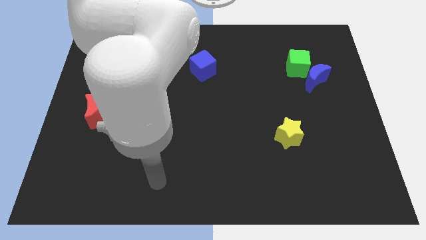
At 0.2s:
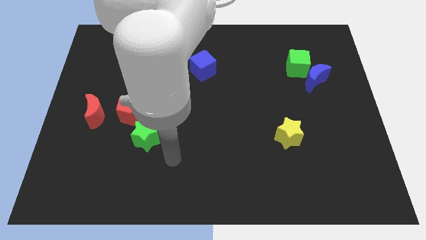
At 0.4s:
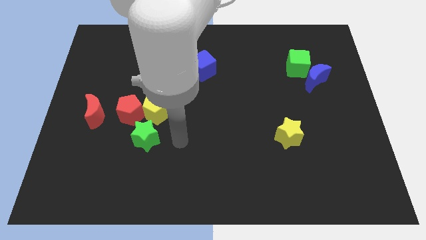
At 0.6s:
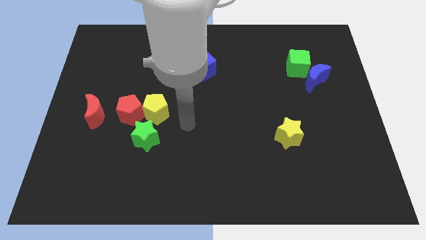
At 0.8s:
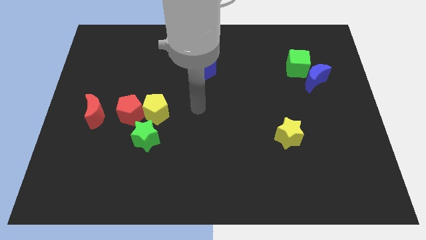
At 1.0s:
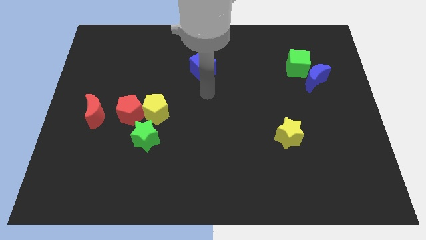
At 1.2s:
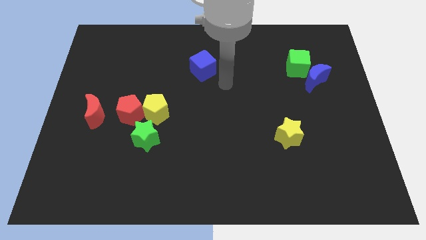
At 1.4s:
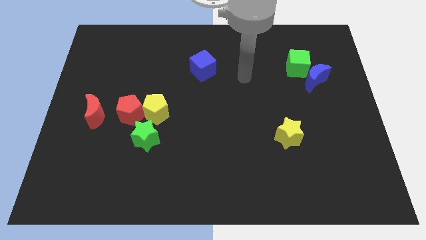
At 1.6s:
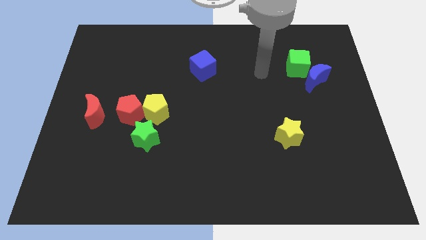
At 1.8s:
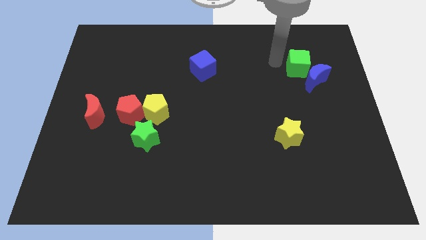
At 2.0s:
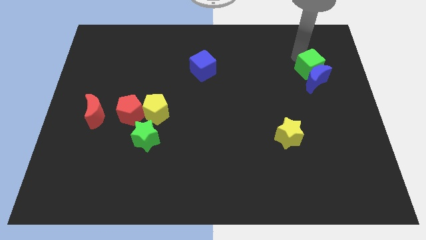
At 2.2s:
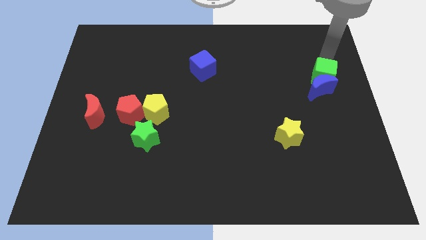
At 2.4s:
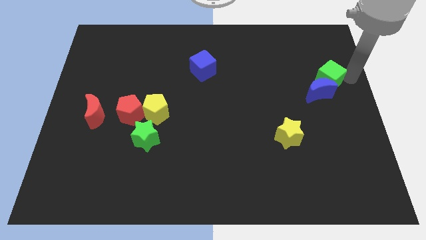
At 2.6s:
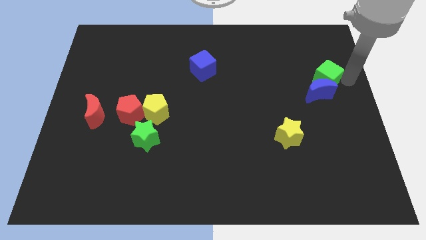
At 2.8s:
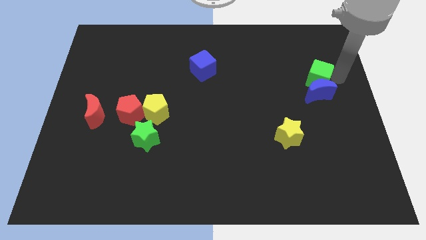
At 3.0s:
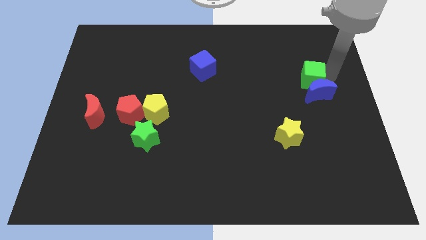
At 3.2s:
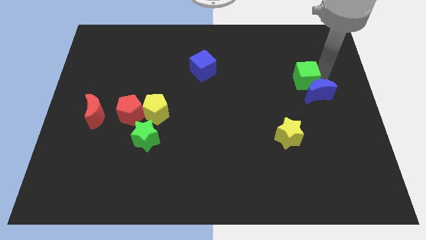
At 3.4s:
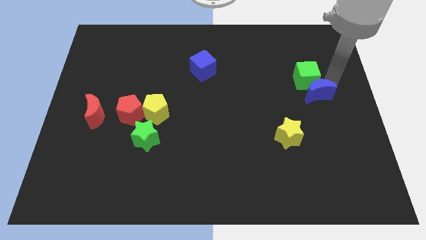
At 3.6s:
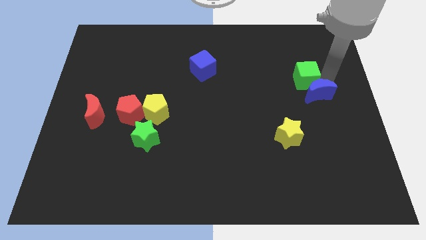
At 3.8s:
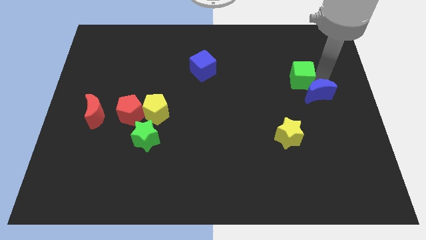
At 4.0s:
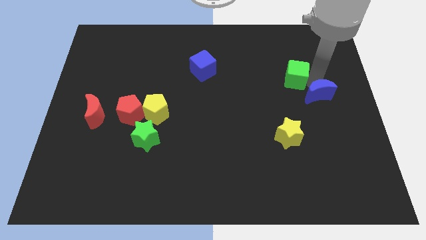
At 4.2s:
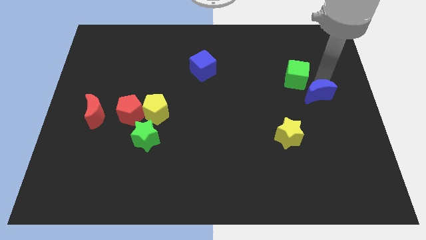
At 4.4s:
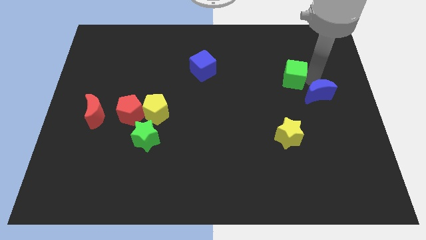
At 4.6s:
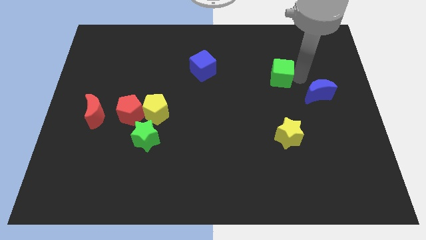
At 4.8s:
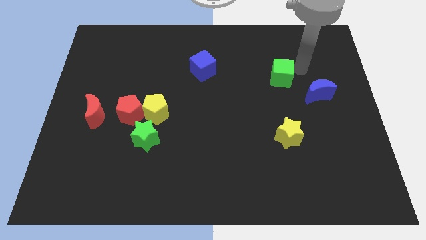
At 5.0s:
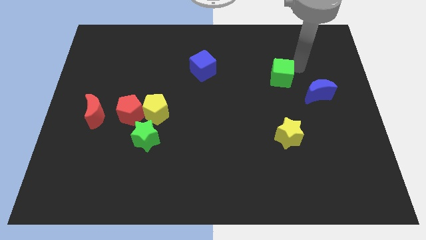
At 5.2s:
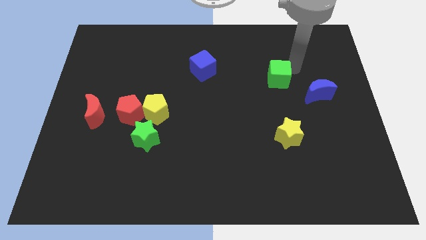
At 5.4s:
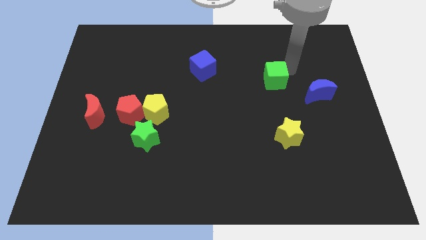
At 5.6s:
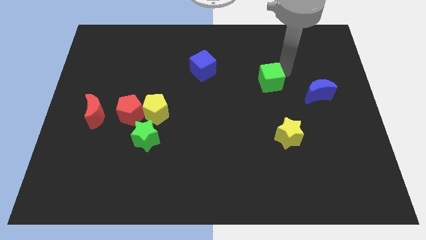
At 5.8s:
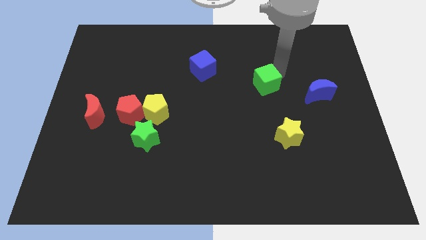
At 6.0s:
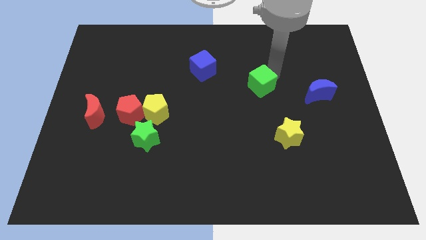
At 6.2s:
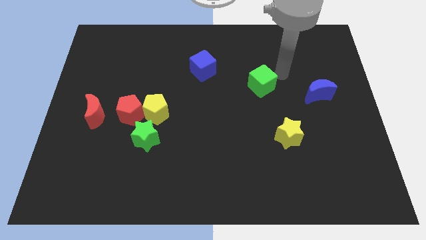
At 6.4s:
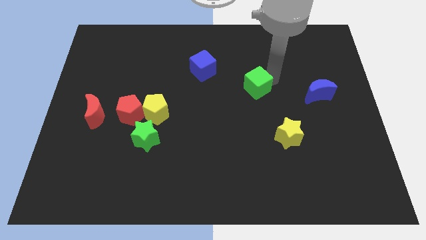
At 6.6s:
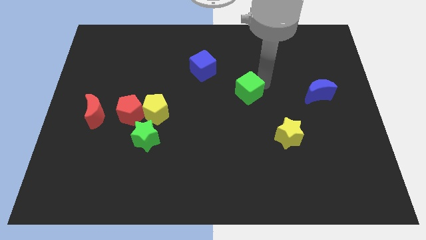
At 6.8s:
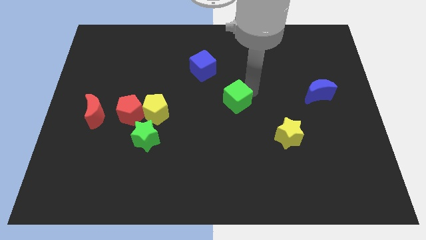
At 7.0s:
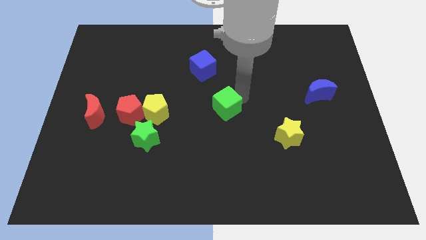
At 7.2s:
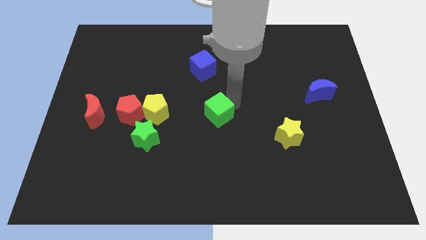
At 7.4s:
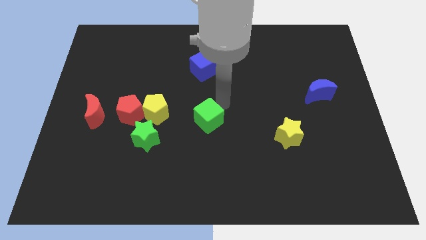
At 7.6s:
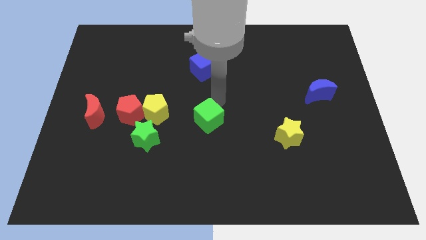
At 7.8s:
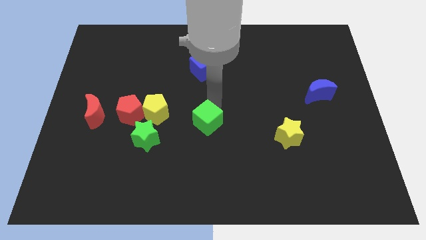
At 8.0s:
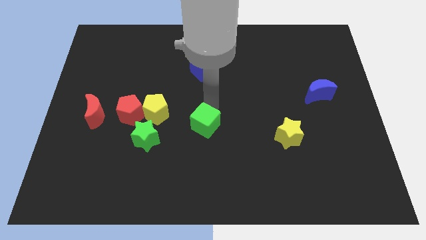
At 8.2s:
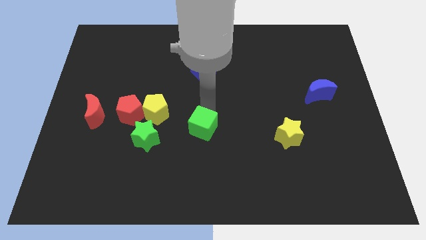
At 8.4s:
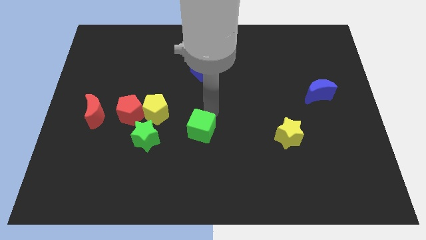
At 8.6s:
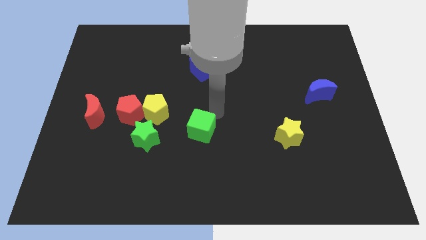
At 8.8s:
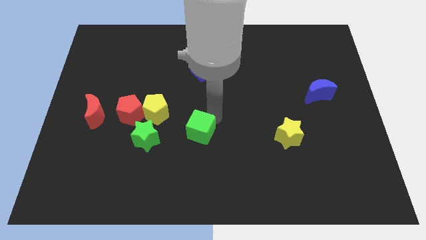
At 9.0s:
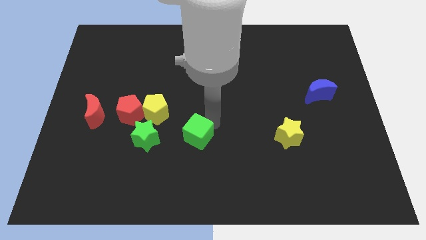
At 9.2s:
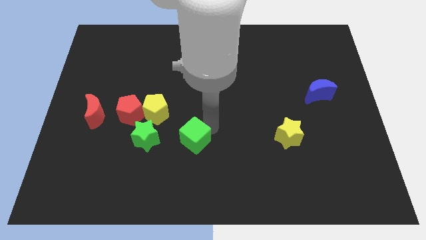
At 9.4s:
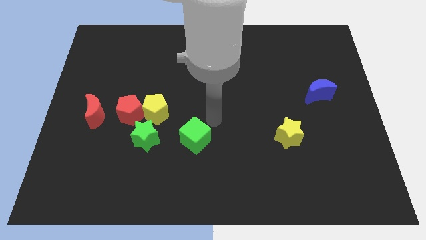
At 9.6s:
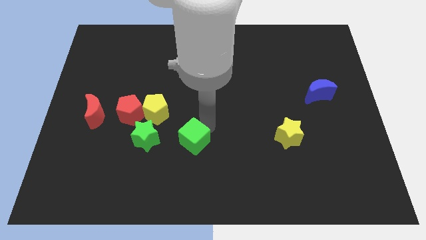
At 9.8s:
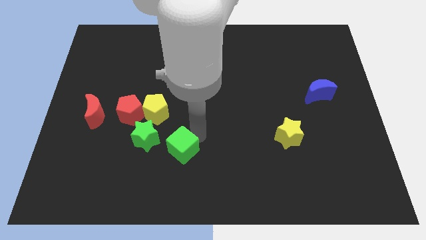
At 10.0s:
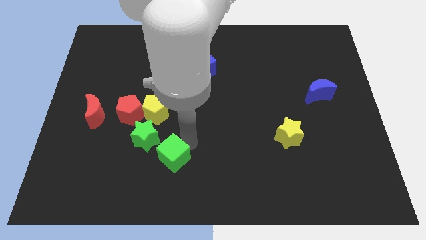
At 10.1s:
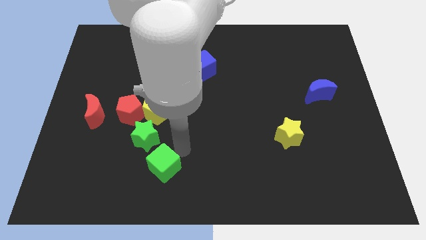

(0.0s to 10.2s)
slide the green cube below the green star

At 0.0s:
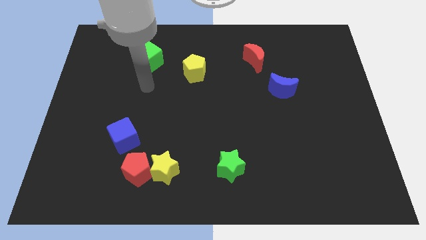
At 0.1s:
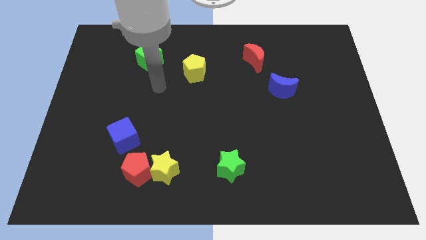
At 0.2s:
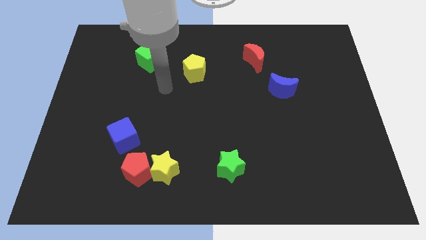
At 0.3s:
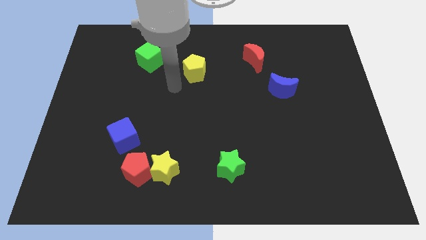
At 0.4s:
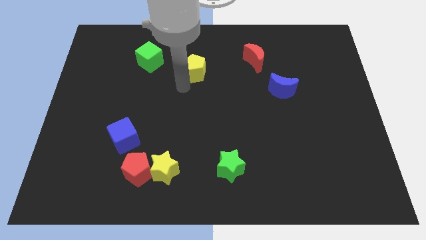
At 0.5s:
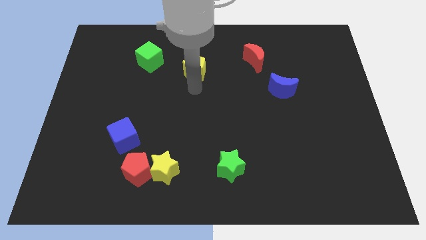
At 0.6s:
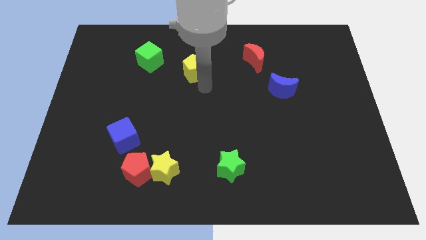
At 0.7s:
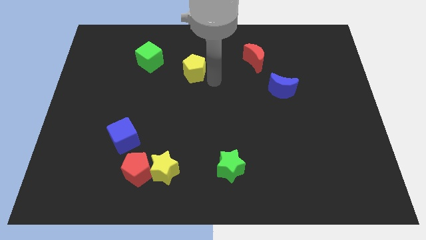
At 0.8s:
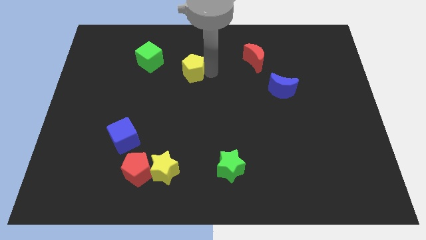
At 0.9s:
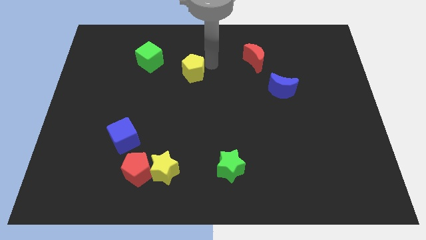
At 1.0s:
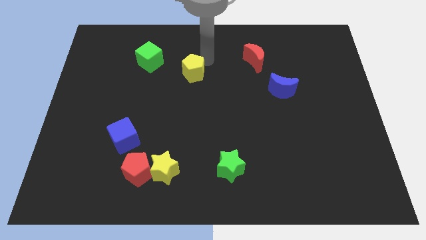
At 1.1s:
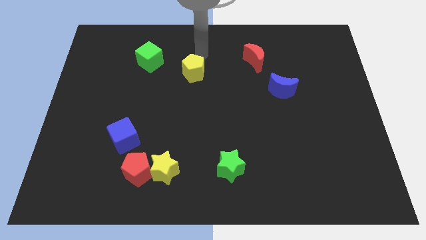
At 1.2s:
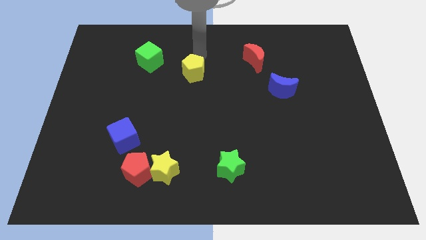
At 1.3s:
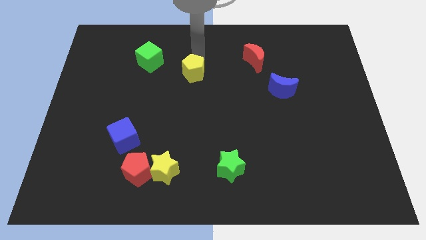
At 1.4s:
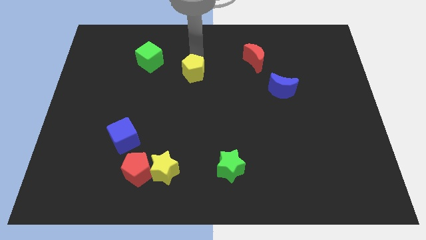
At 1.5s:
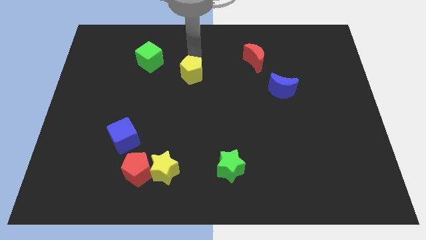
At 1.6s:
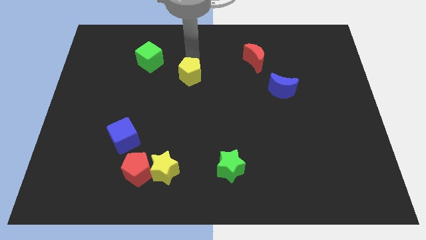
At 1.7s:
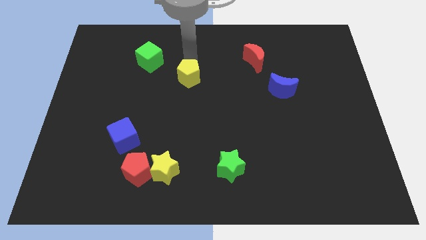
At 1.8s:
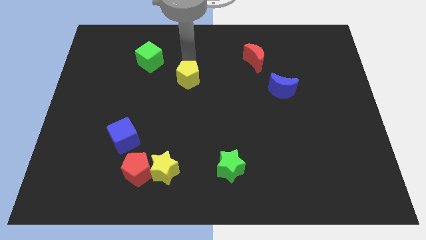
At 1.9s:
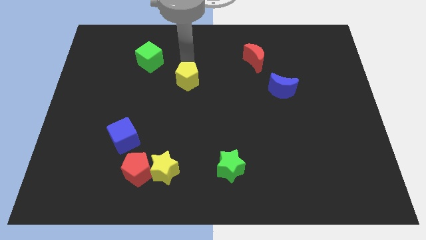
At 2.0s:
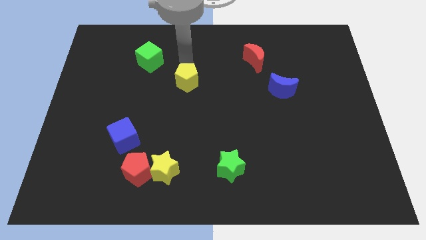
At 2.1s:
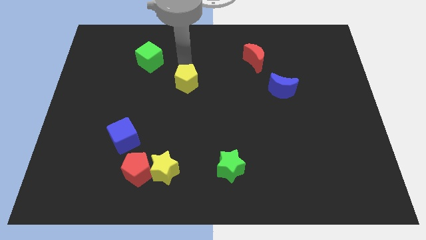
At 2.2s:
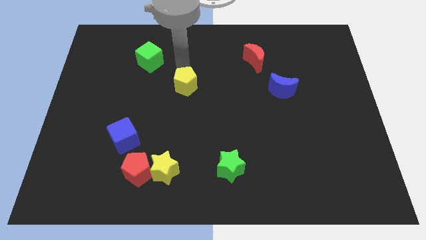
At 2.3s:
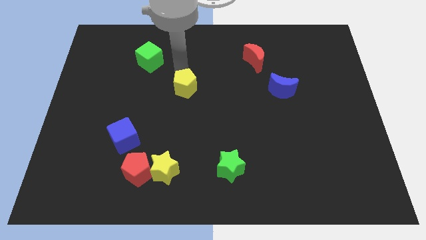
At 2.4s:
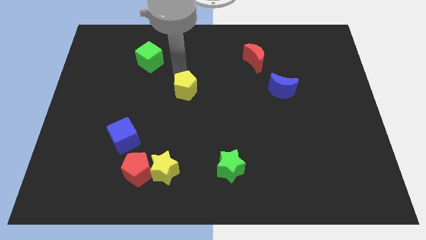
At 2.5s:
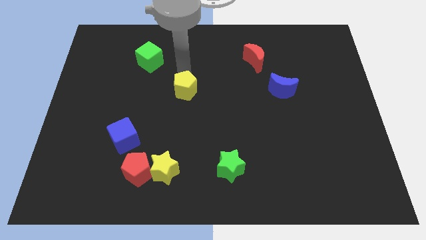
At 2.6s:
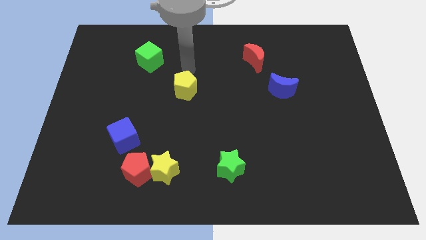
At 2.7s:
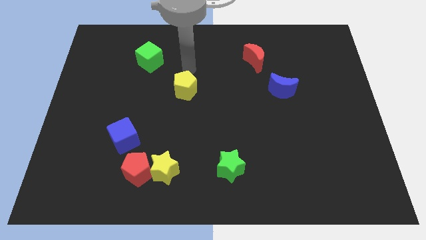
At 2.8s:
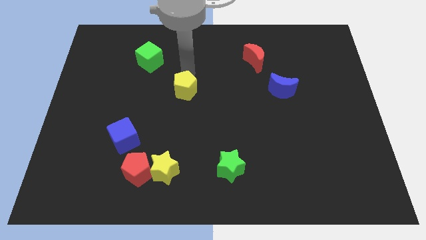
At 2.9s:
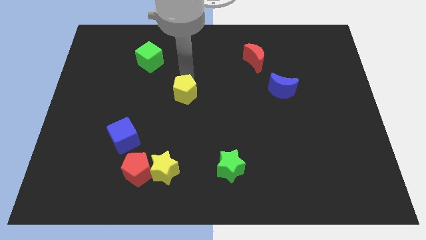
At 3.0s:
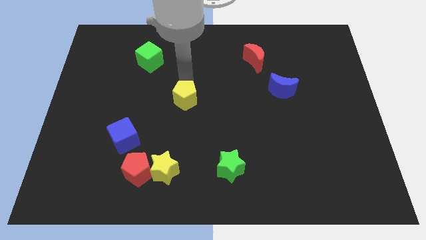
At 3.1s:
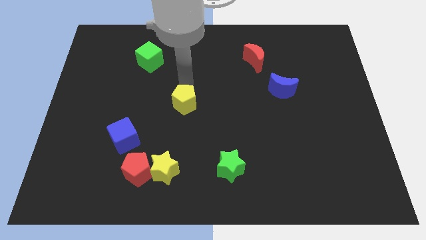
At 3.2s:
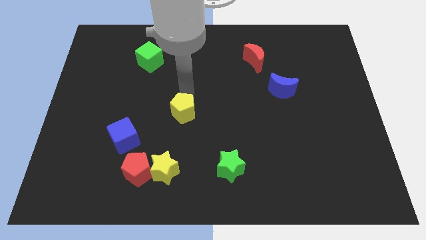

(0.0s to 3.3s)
put the yellow pentagon to the top of the yellow star
